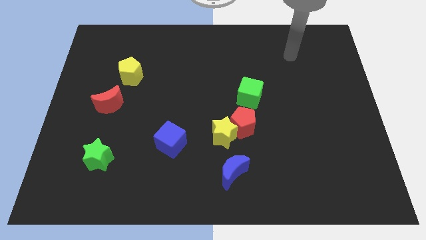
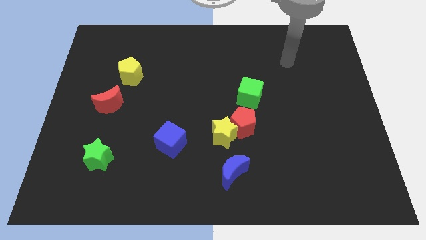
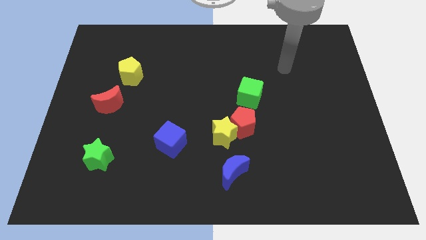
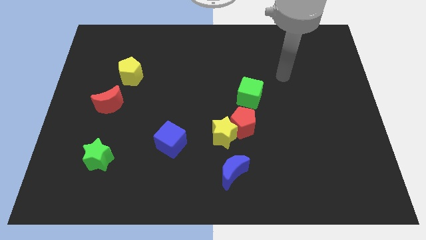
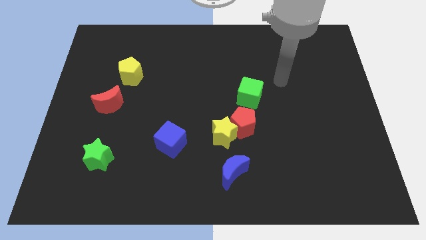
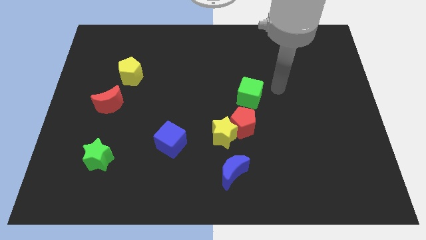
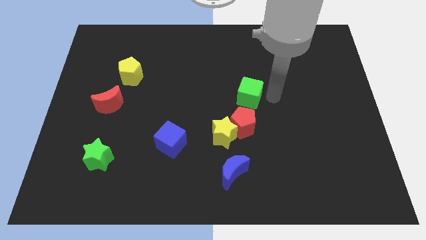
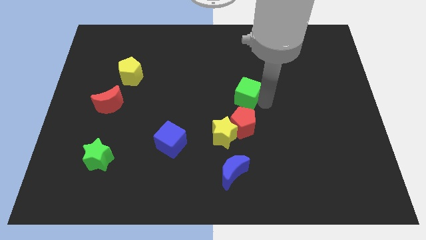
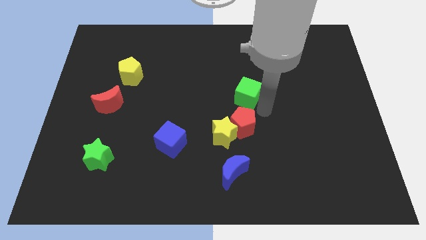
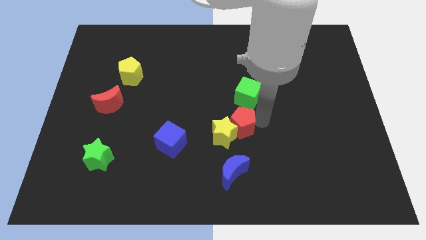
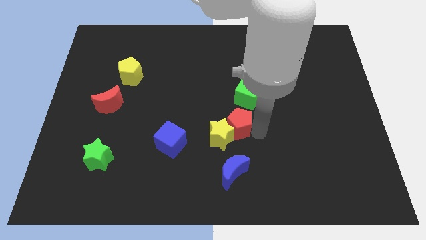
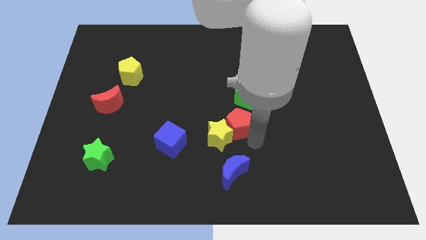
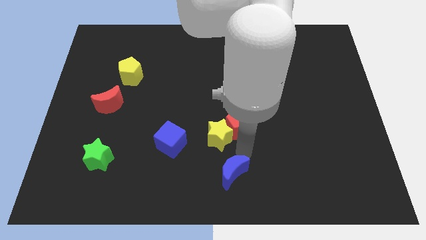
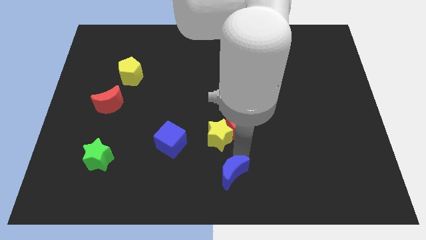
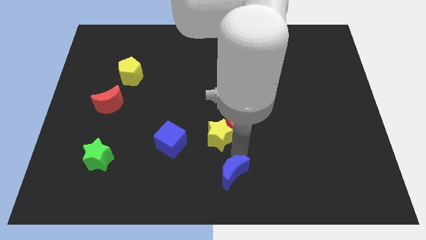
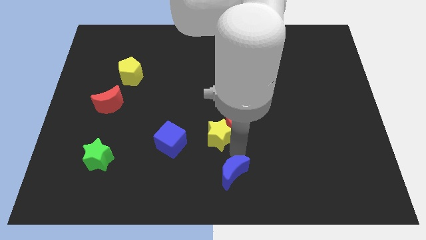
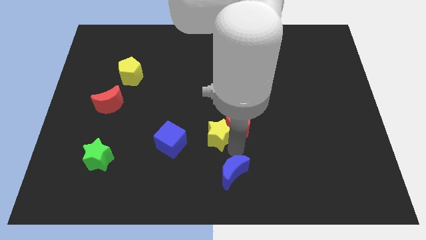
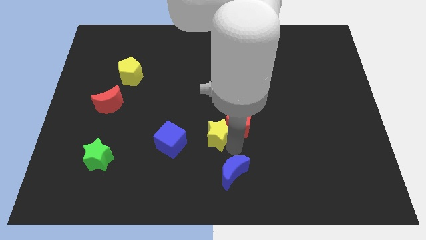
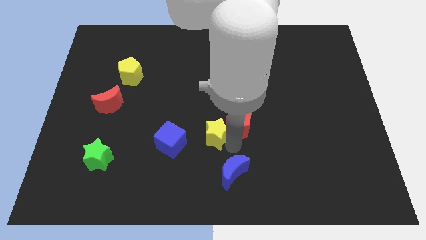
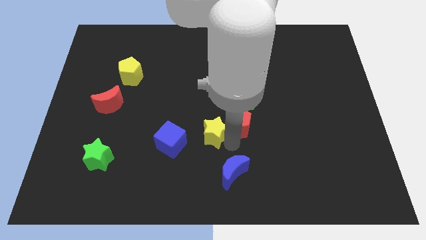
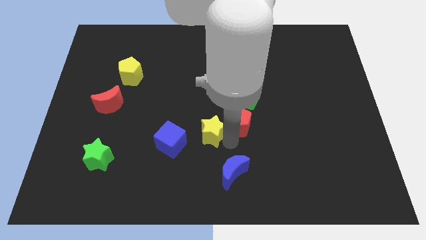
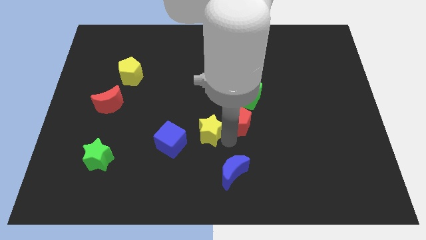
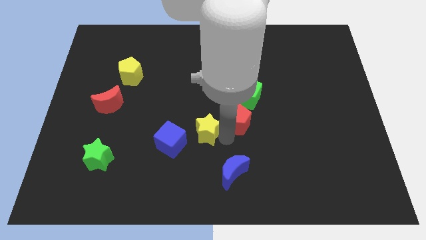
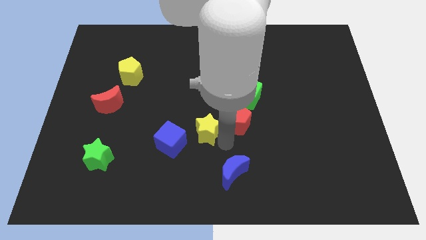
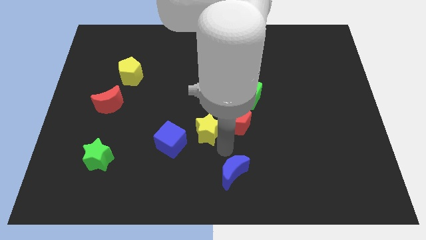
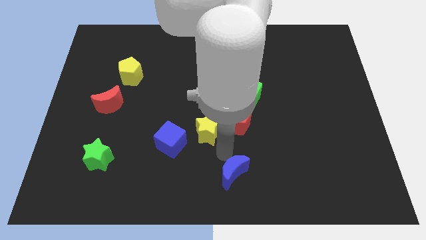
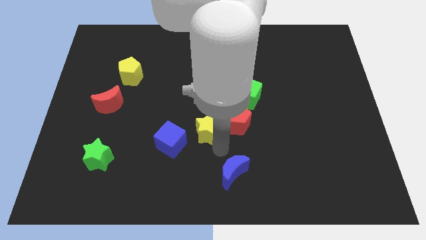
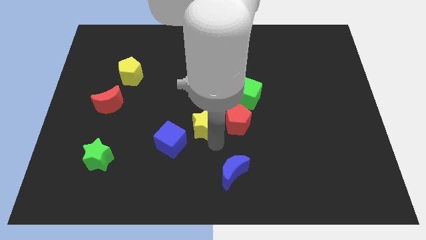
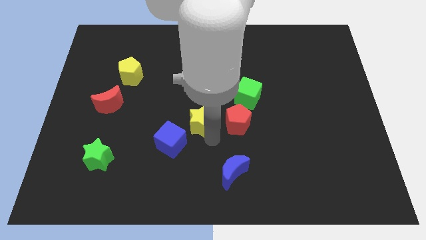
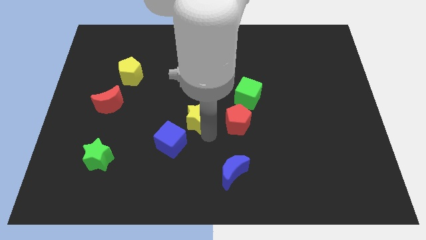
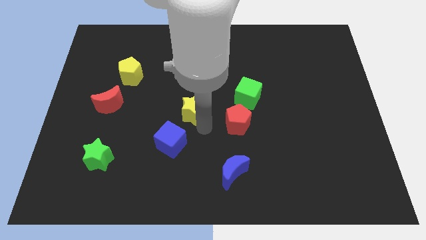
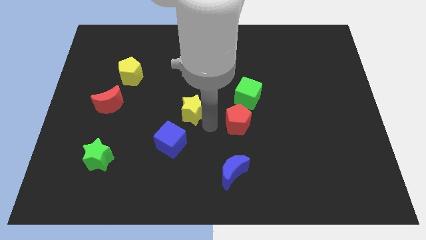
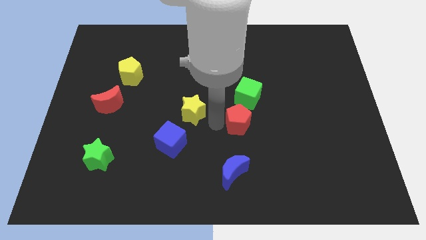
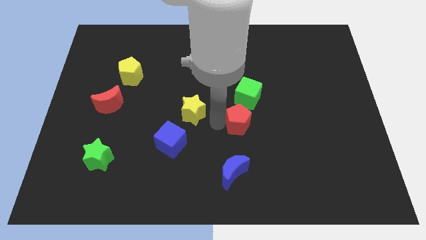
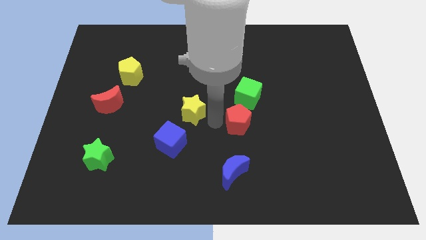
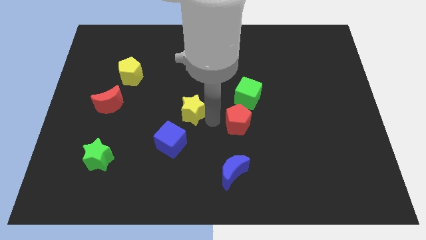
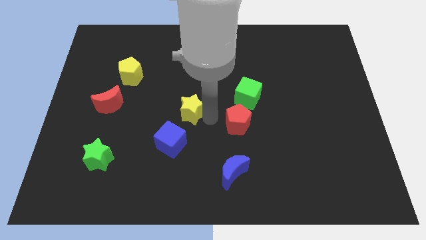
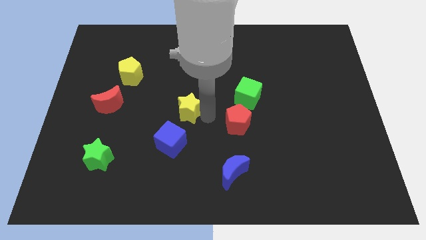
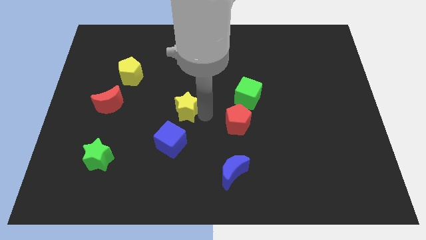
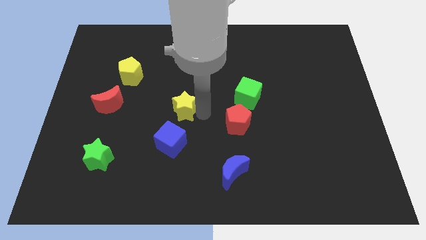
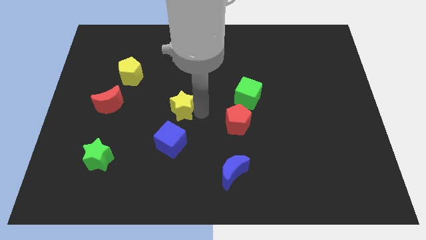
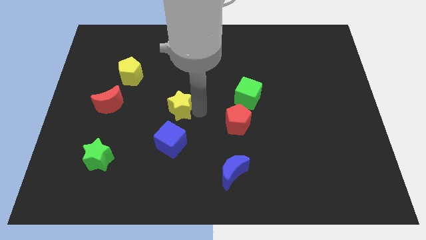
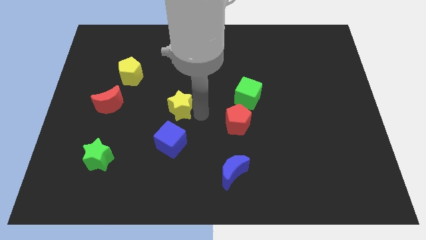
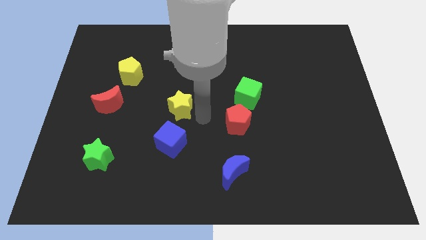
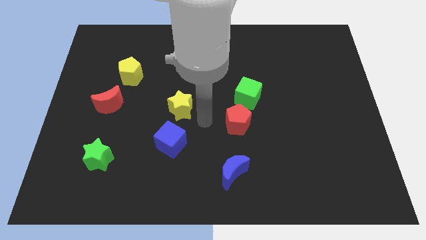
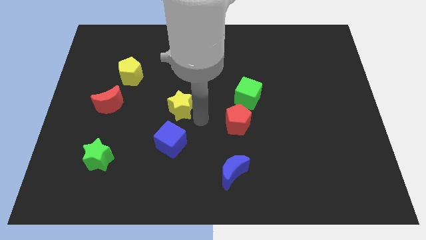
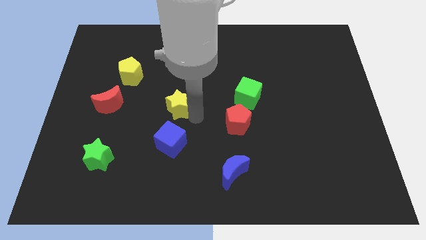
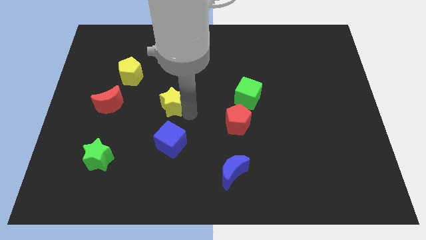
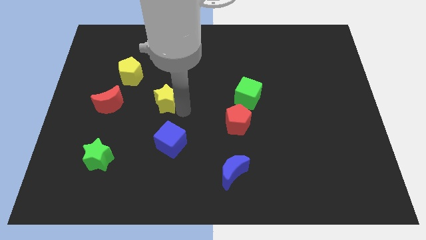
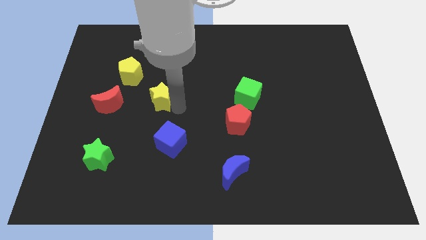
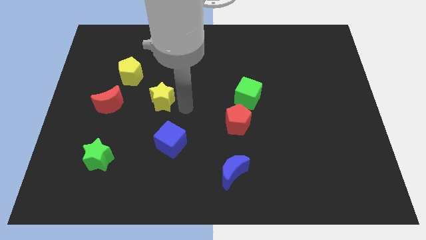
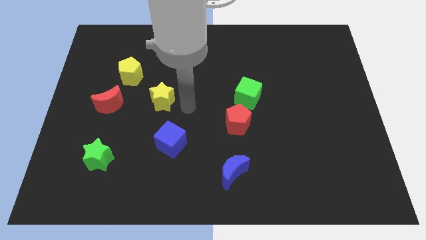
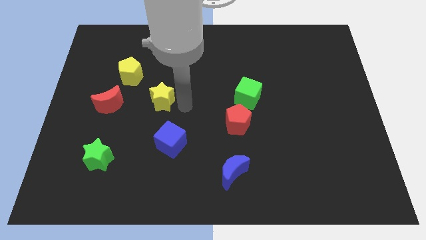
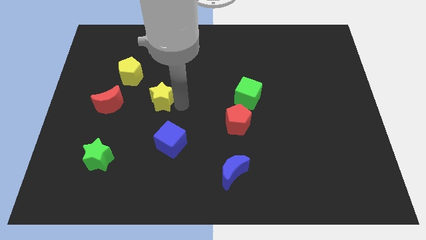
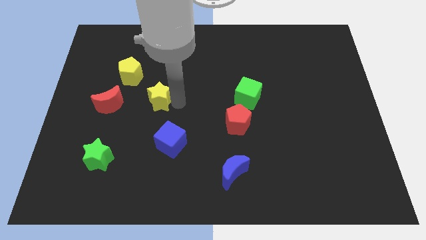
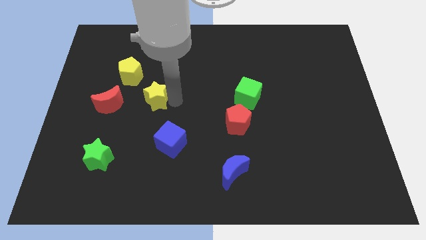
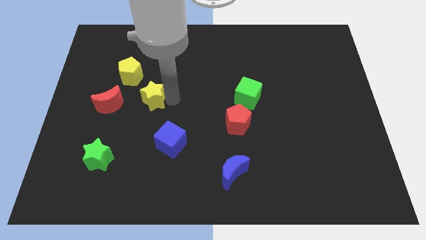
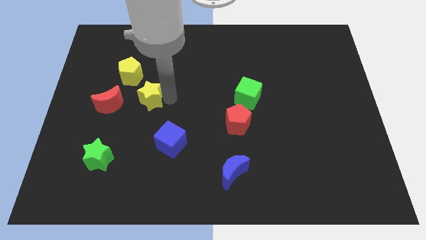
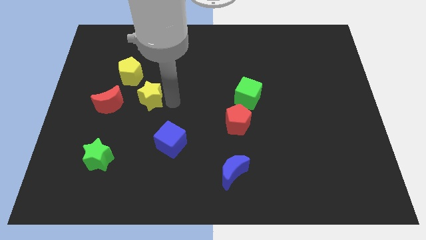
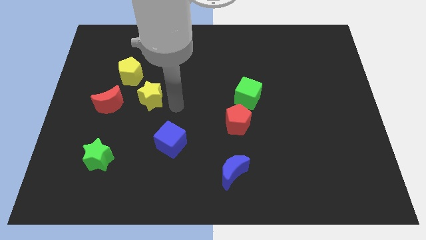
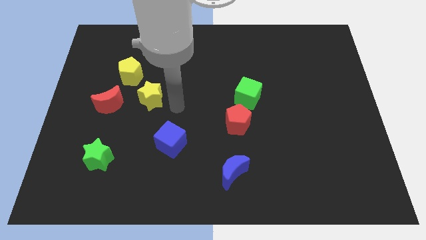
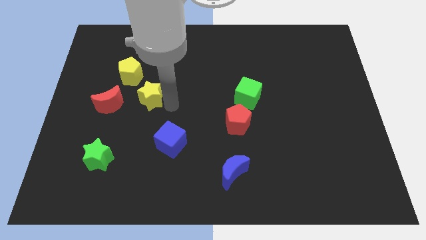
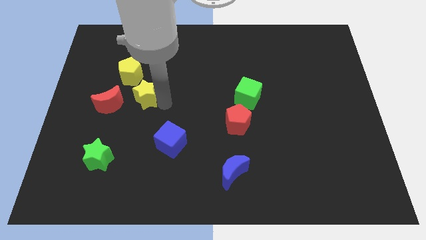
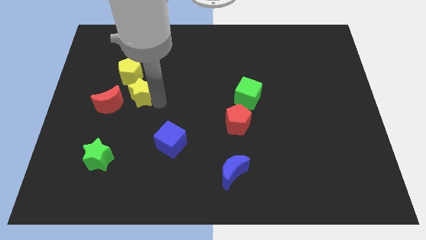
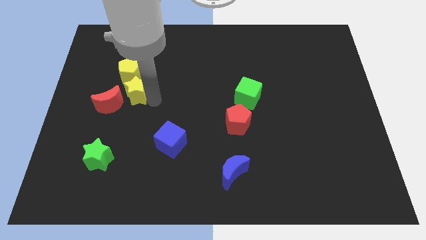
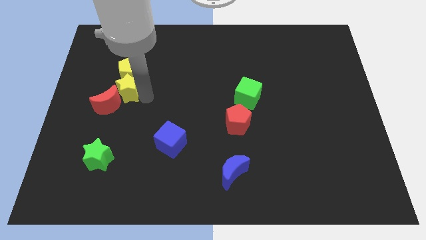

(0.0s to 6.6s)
put the yellow star diagonally down and to the left of the yellow pentagon
